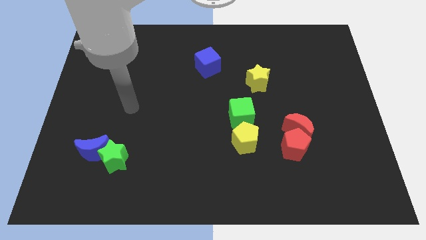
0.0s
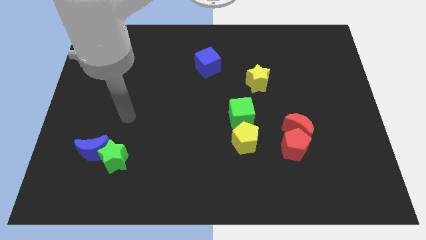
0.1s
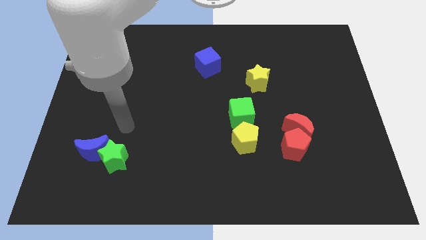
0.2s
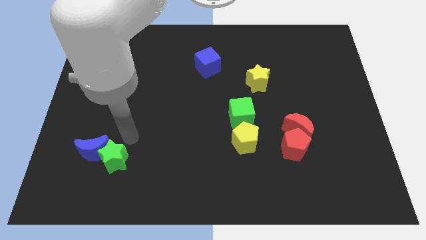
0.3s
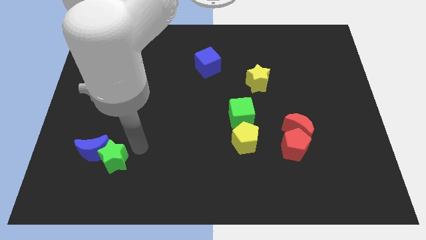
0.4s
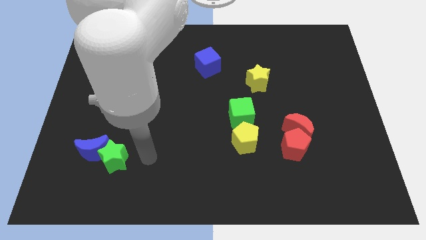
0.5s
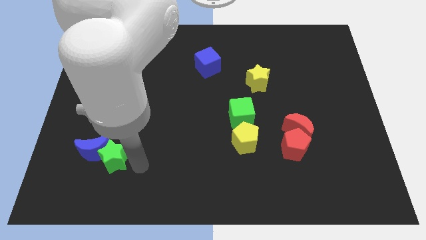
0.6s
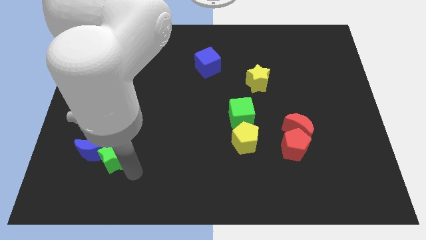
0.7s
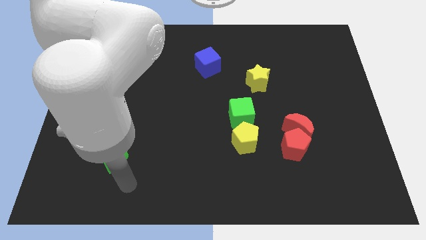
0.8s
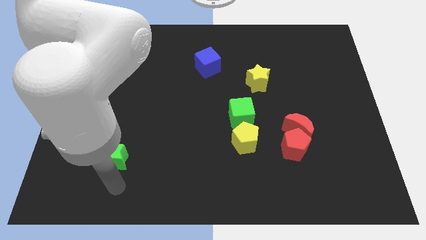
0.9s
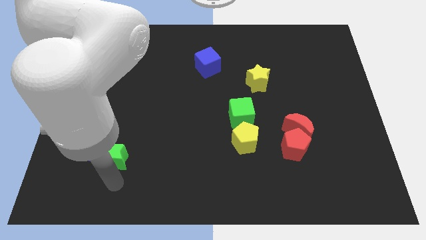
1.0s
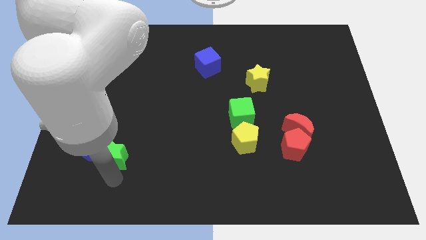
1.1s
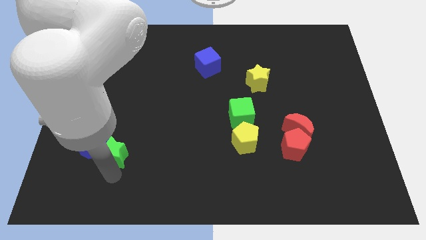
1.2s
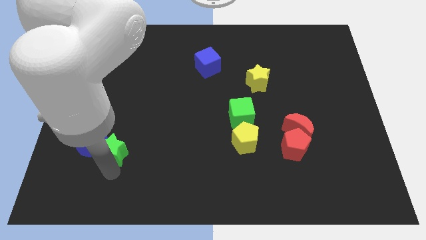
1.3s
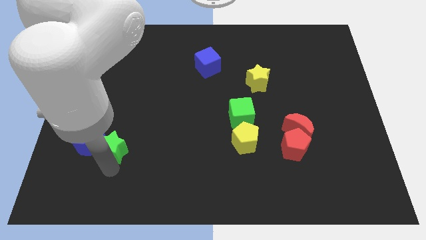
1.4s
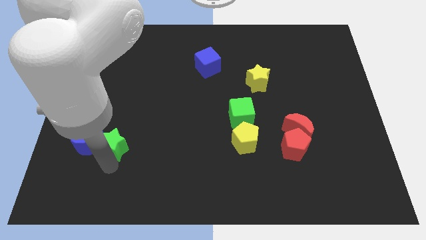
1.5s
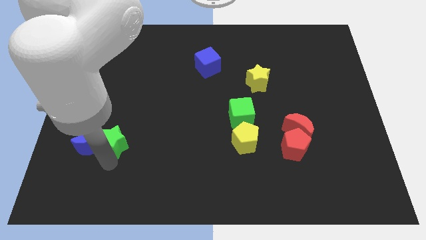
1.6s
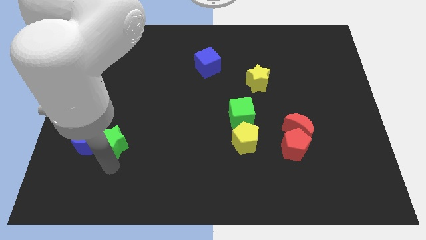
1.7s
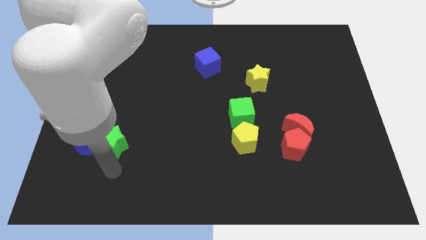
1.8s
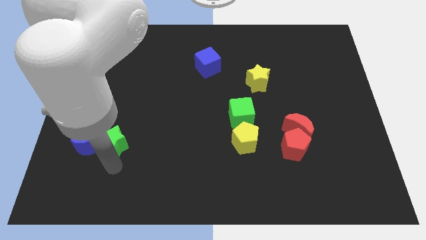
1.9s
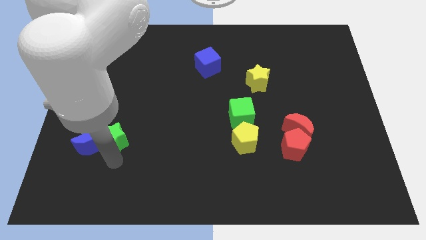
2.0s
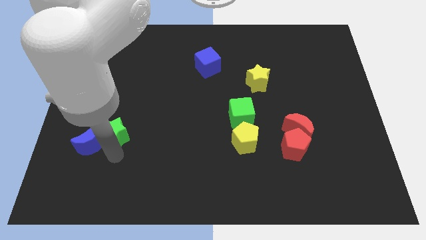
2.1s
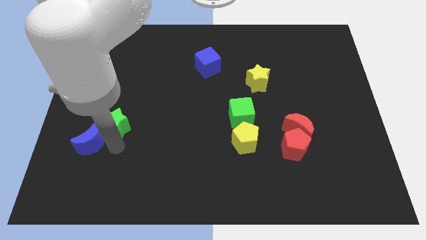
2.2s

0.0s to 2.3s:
move the green star a little up

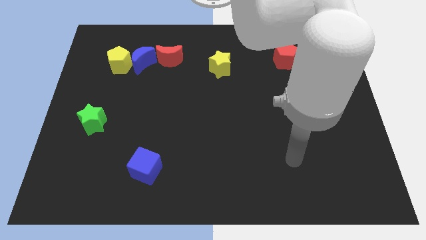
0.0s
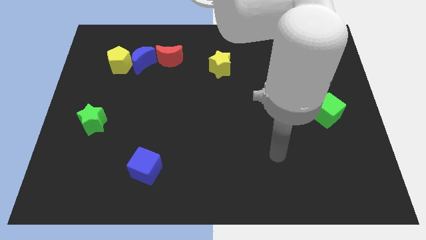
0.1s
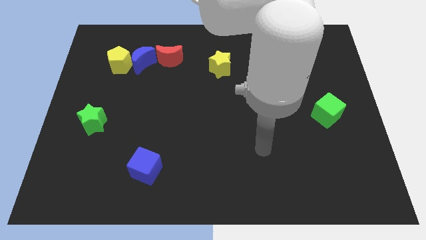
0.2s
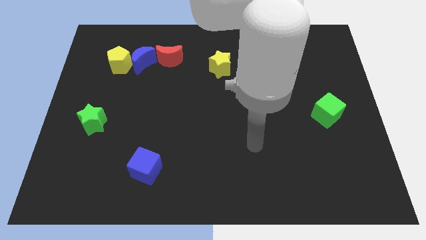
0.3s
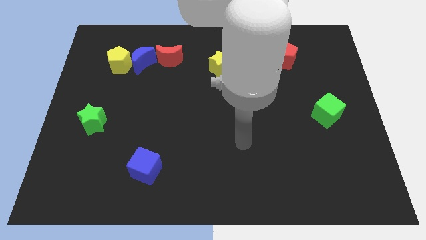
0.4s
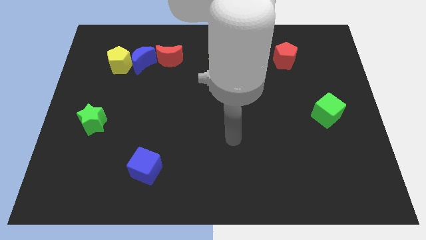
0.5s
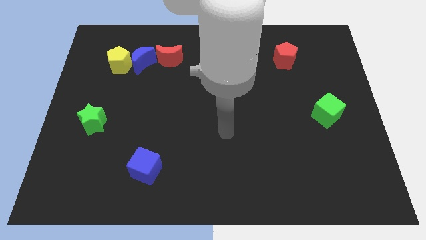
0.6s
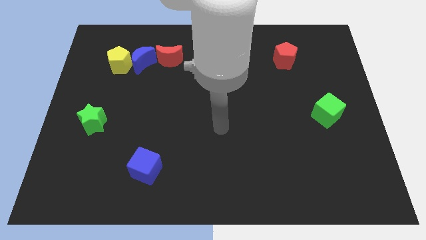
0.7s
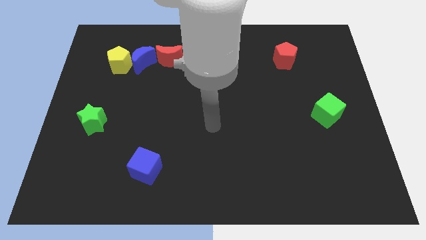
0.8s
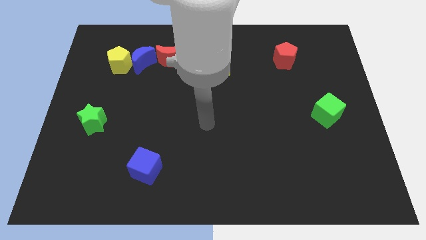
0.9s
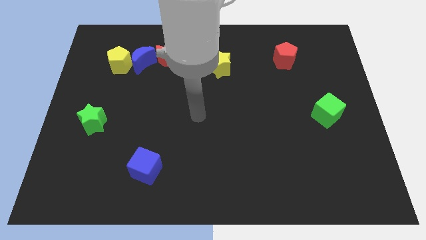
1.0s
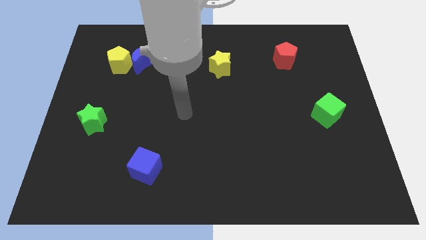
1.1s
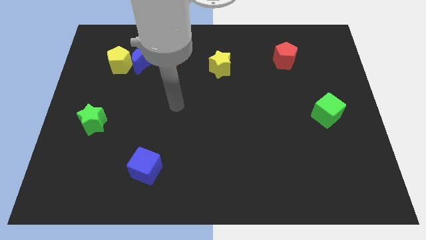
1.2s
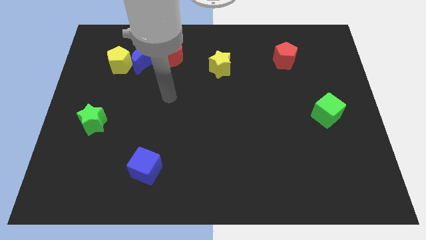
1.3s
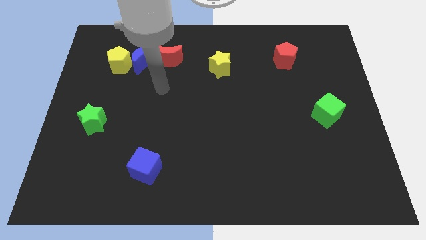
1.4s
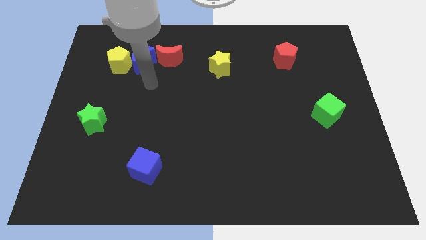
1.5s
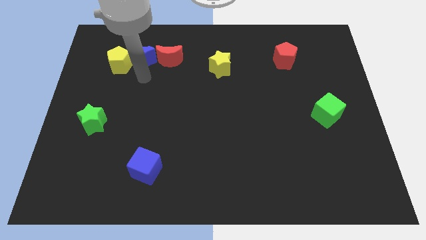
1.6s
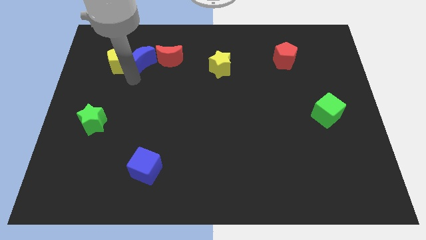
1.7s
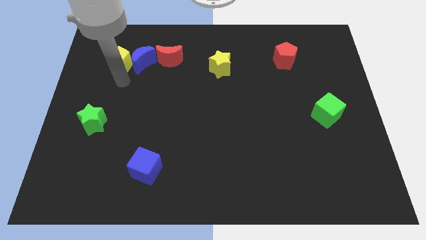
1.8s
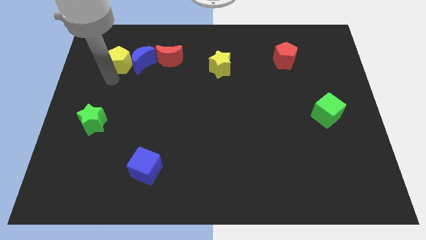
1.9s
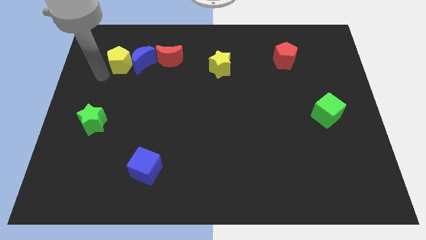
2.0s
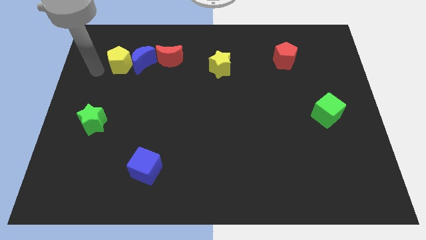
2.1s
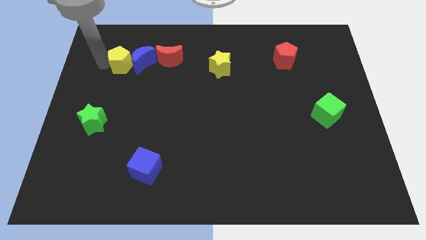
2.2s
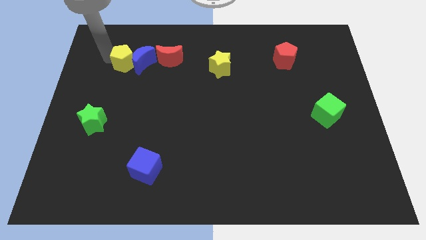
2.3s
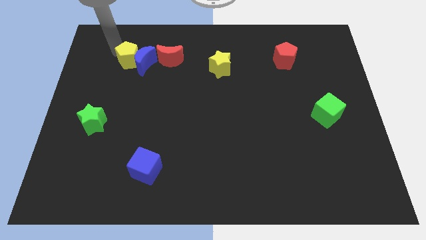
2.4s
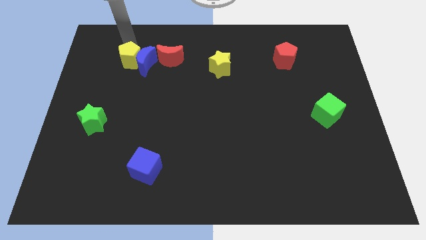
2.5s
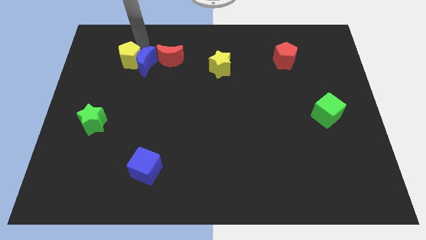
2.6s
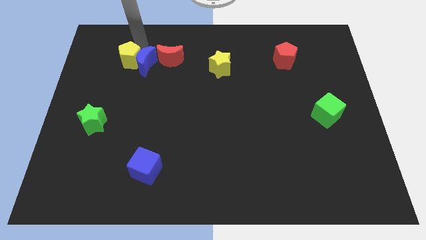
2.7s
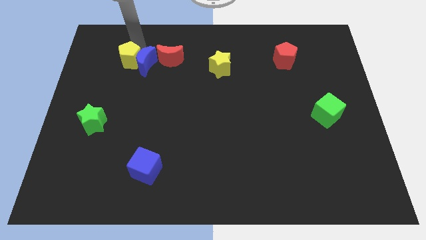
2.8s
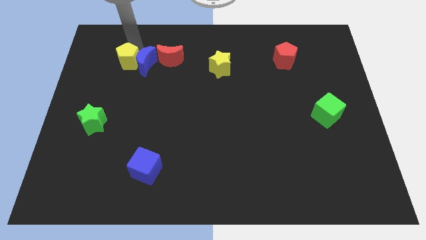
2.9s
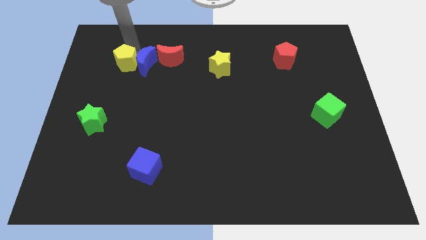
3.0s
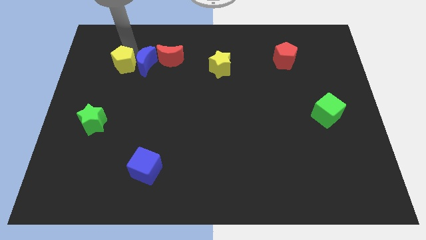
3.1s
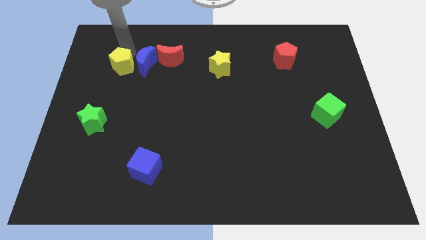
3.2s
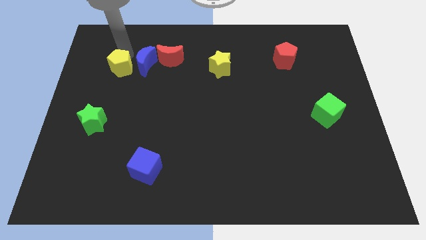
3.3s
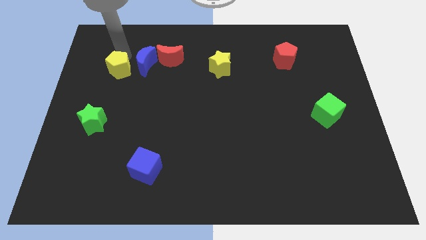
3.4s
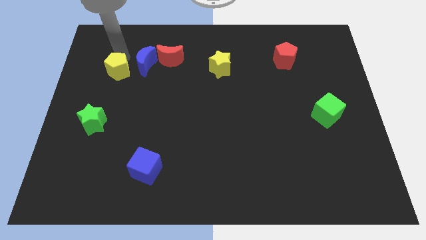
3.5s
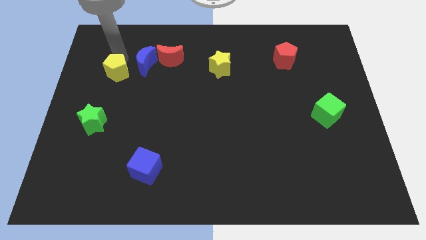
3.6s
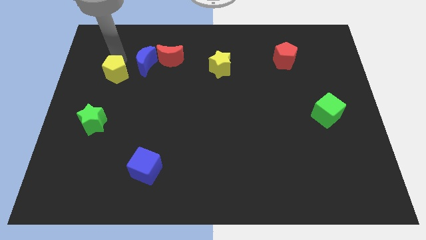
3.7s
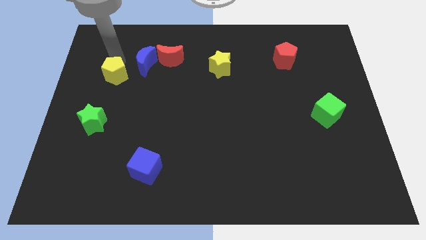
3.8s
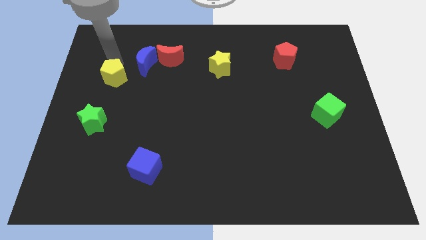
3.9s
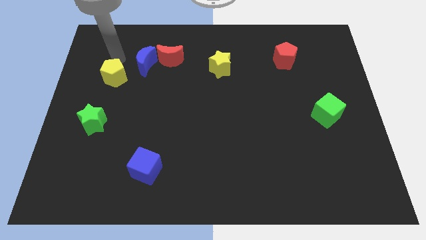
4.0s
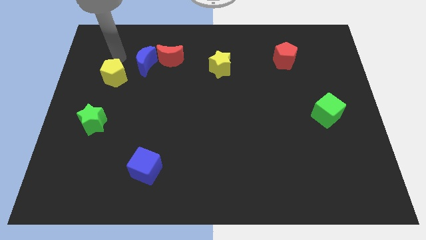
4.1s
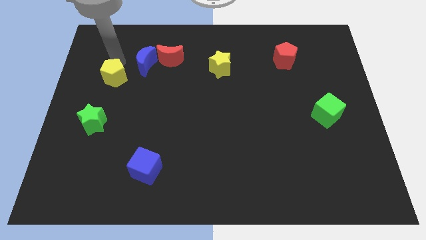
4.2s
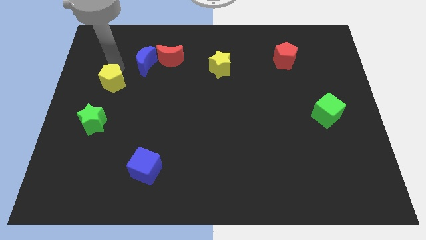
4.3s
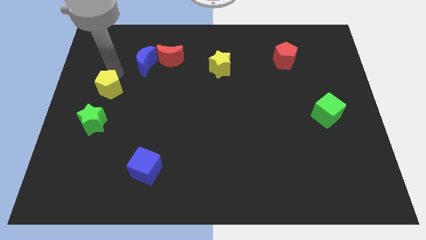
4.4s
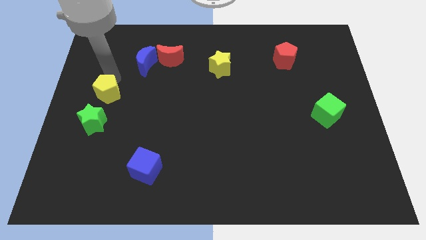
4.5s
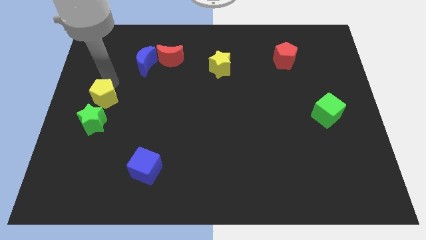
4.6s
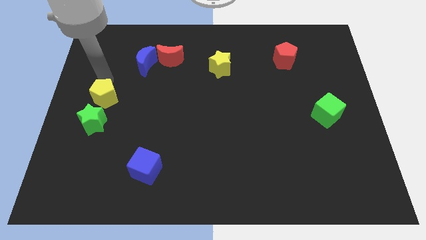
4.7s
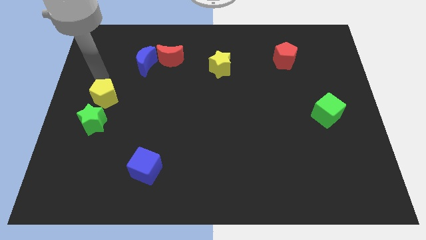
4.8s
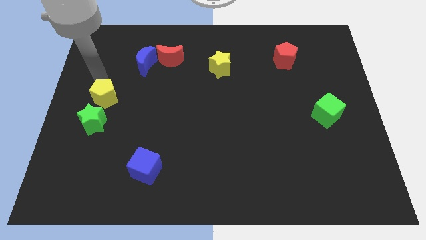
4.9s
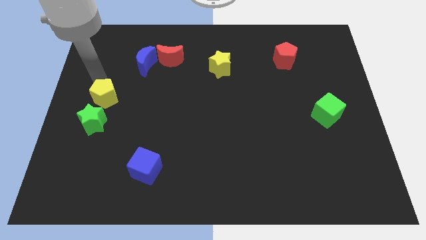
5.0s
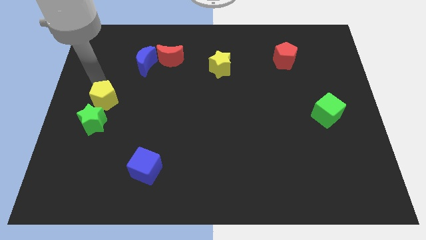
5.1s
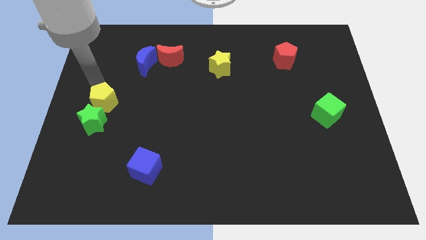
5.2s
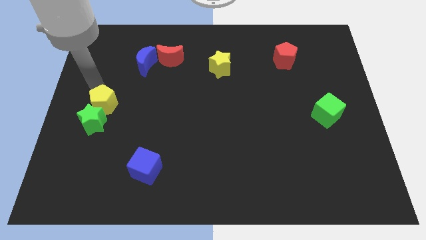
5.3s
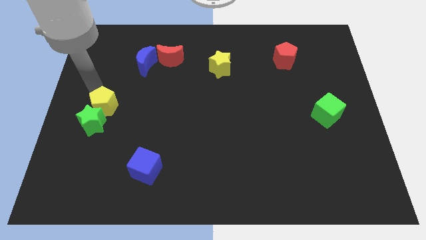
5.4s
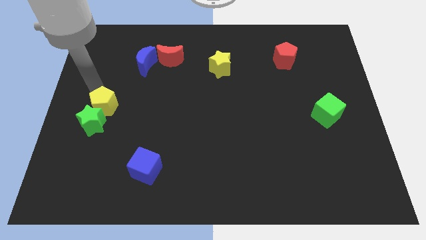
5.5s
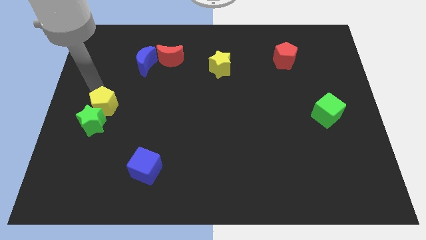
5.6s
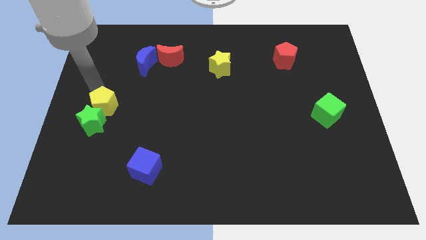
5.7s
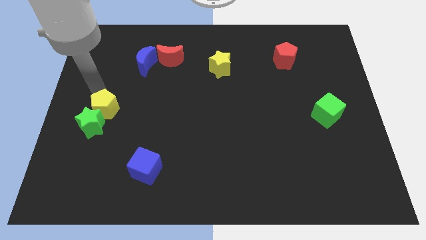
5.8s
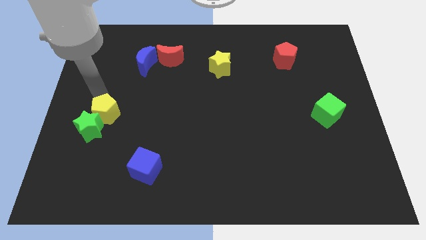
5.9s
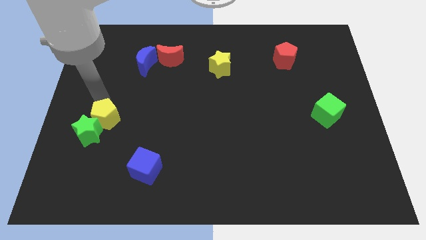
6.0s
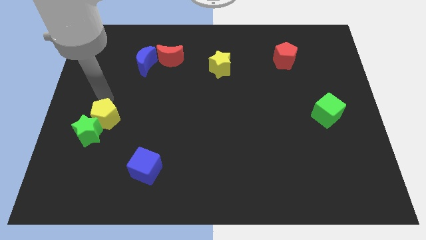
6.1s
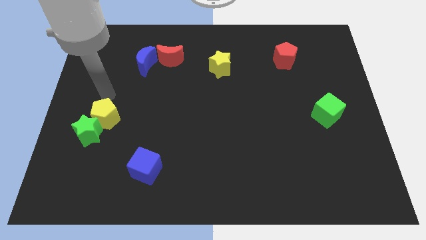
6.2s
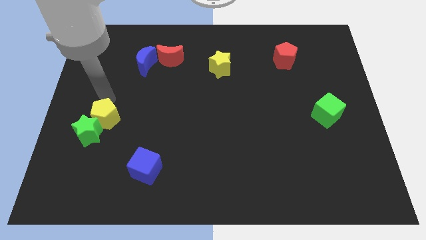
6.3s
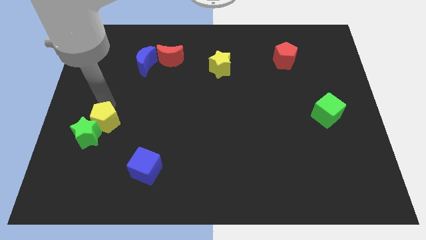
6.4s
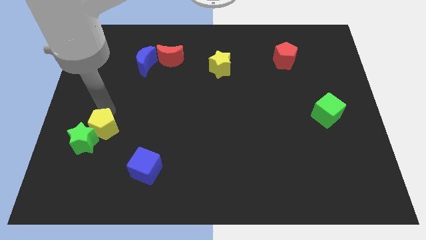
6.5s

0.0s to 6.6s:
move the yellow pentagon downwards
